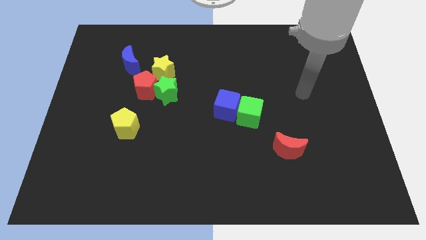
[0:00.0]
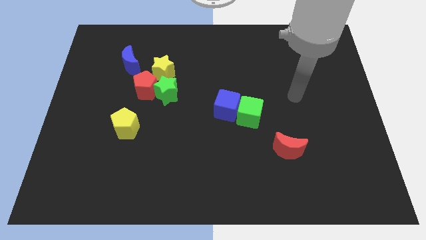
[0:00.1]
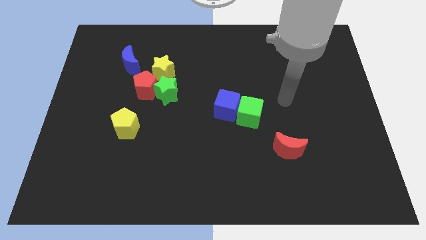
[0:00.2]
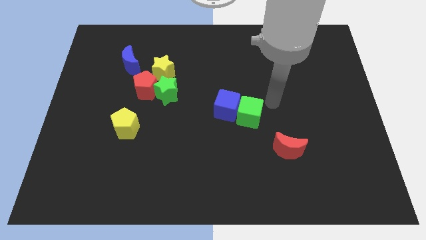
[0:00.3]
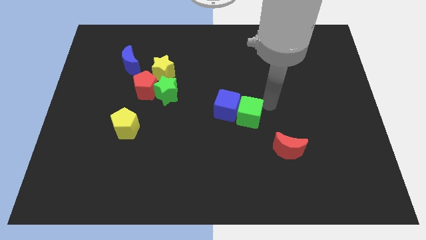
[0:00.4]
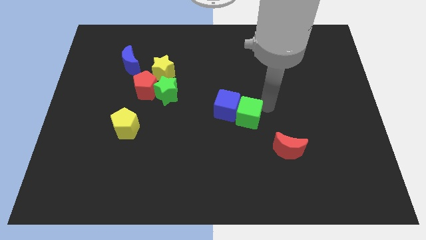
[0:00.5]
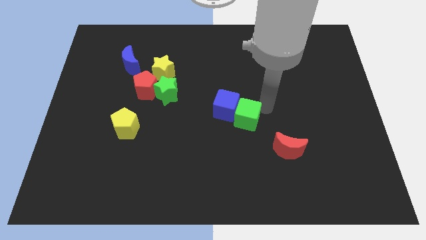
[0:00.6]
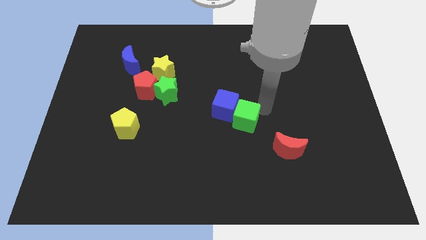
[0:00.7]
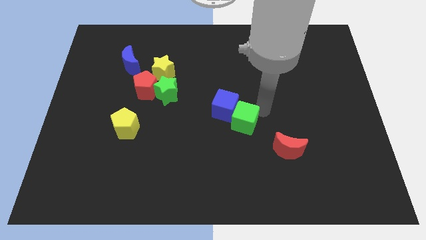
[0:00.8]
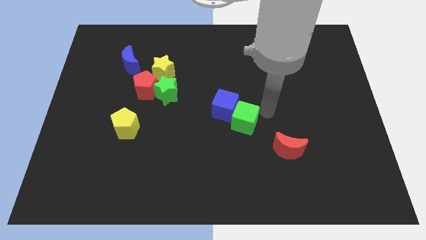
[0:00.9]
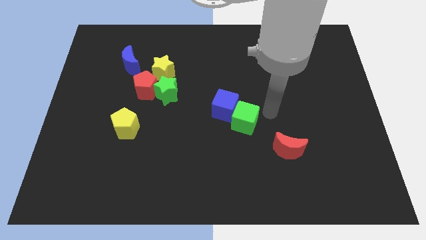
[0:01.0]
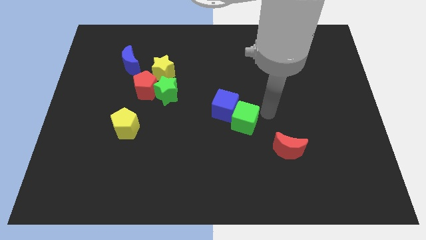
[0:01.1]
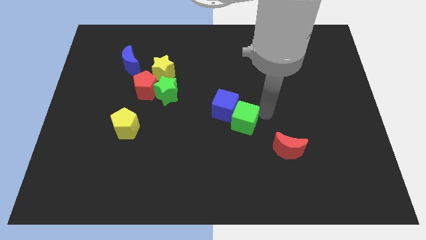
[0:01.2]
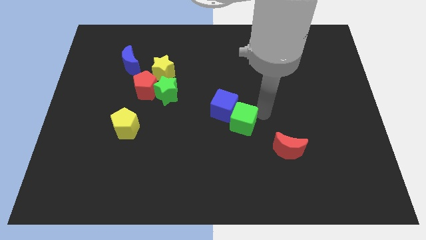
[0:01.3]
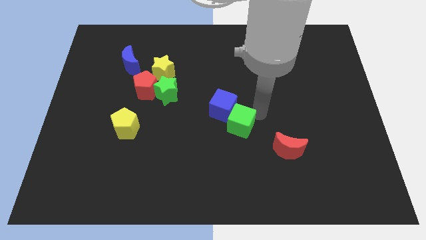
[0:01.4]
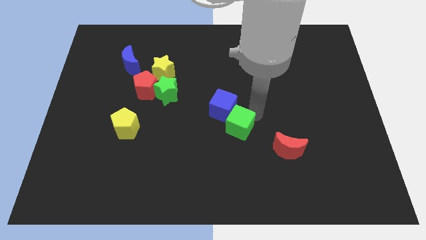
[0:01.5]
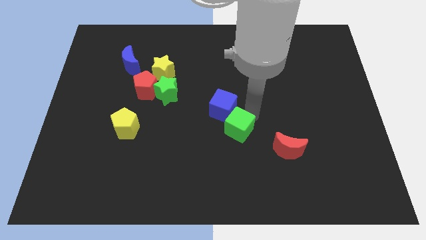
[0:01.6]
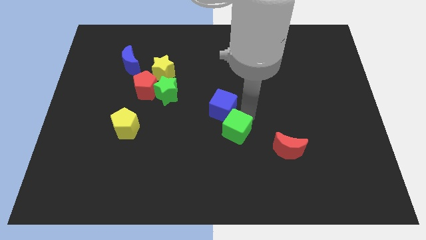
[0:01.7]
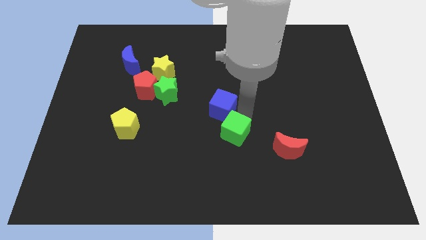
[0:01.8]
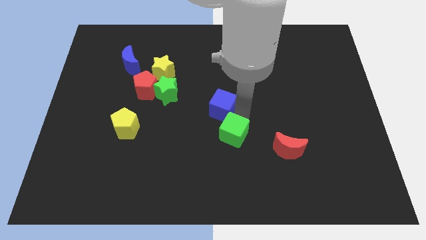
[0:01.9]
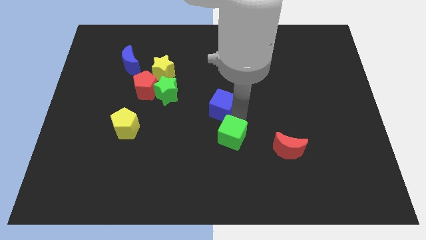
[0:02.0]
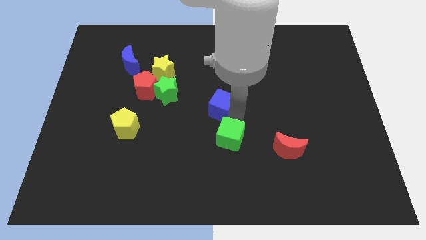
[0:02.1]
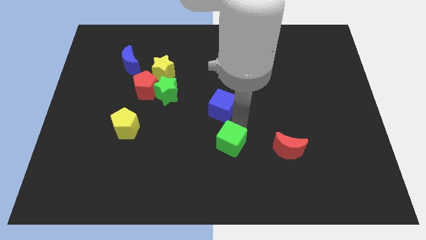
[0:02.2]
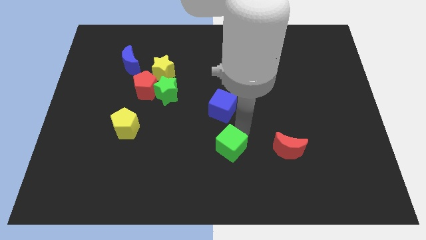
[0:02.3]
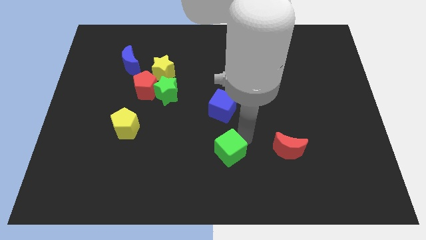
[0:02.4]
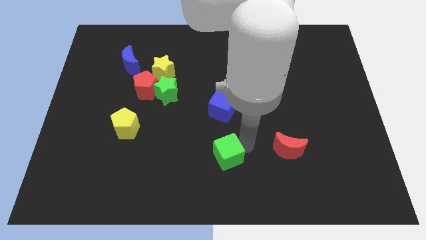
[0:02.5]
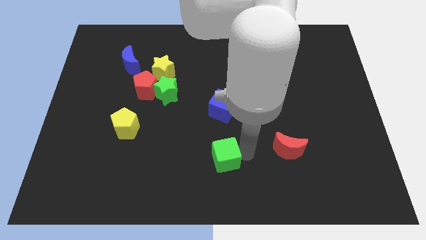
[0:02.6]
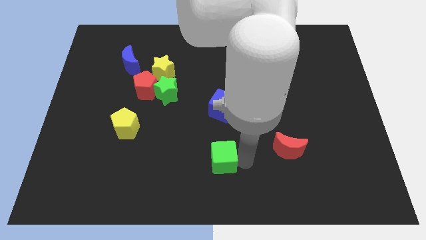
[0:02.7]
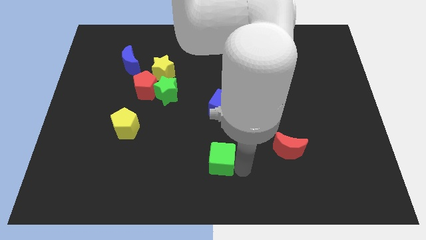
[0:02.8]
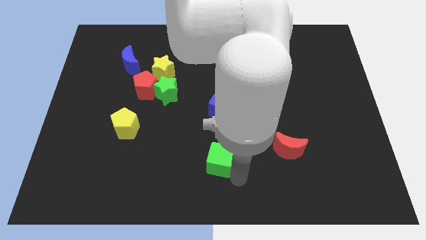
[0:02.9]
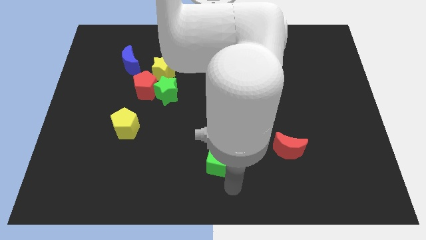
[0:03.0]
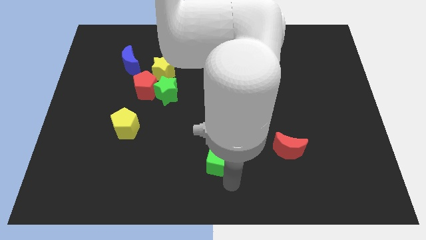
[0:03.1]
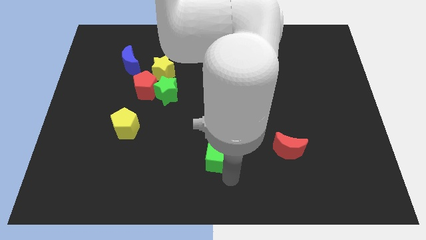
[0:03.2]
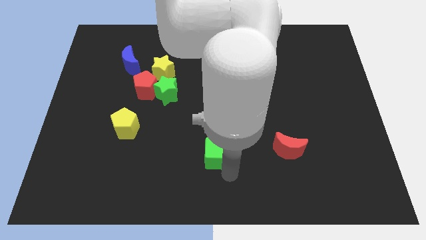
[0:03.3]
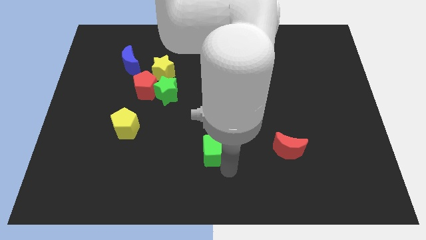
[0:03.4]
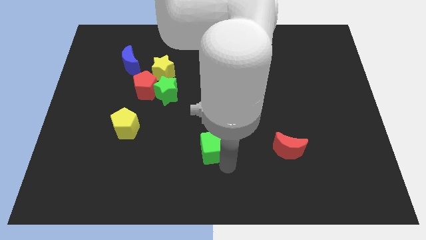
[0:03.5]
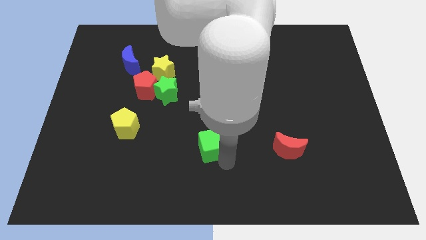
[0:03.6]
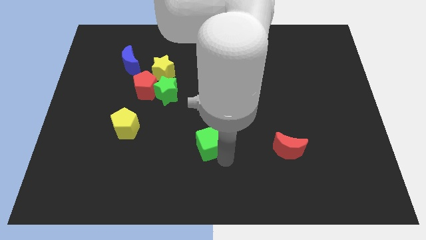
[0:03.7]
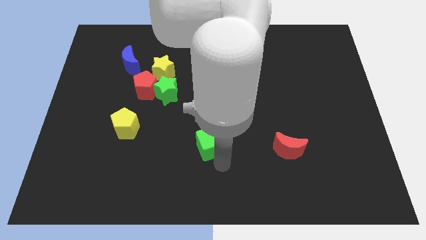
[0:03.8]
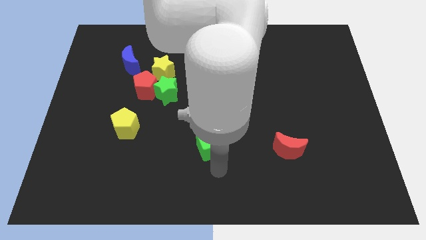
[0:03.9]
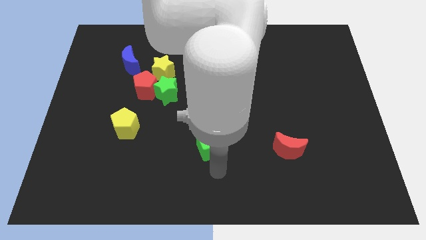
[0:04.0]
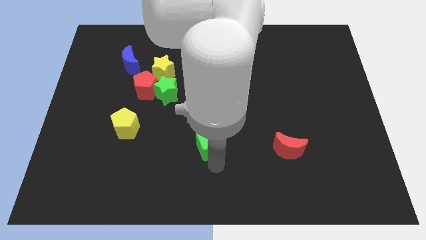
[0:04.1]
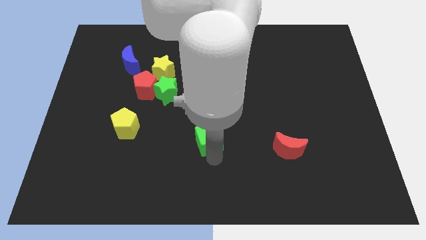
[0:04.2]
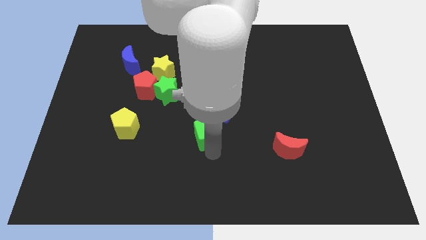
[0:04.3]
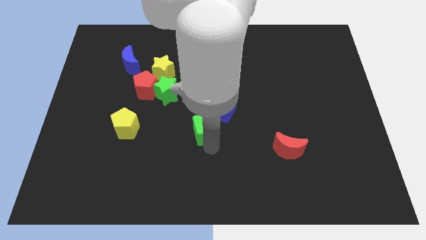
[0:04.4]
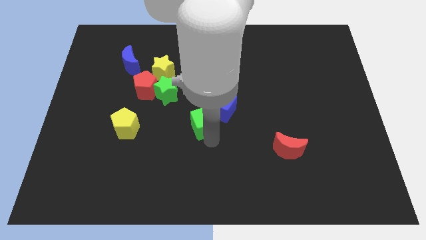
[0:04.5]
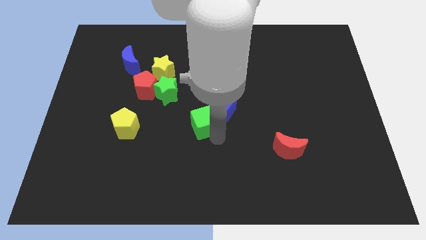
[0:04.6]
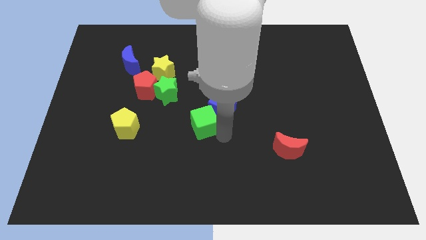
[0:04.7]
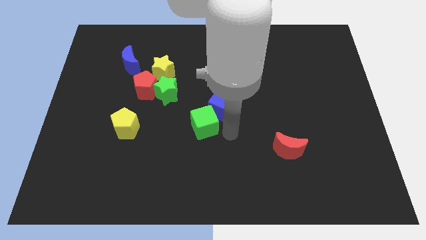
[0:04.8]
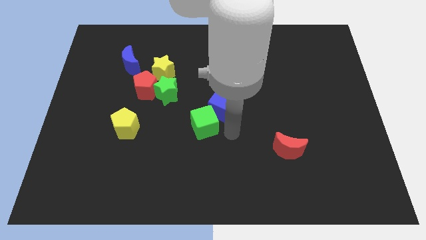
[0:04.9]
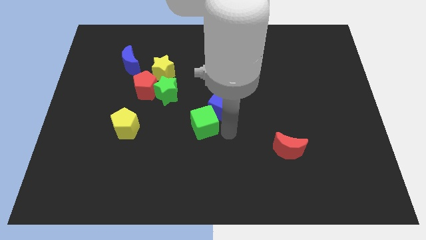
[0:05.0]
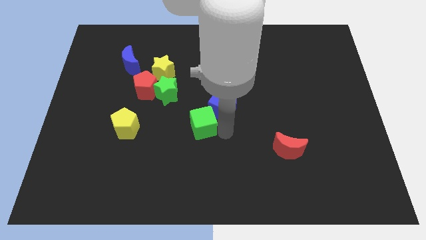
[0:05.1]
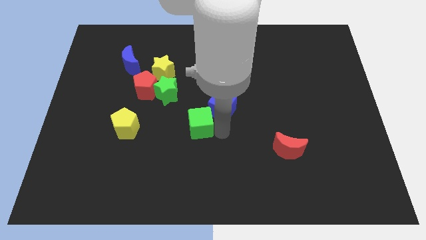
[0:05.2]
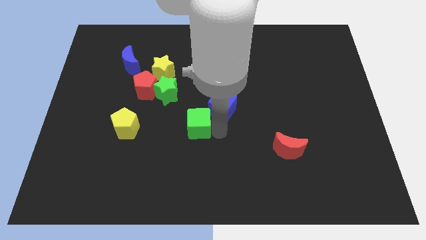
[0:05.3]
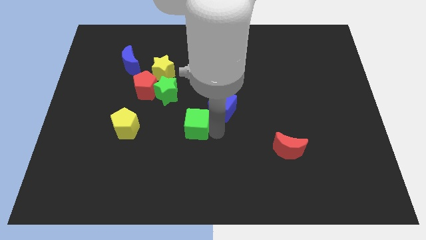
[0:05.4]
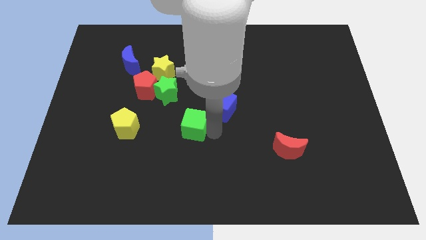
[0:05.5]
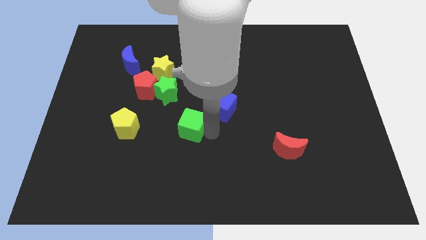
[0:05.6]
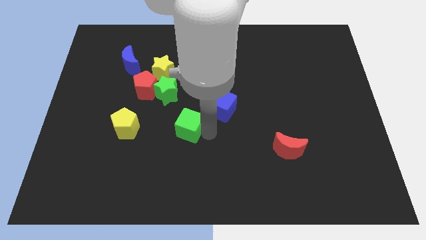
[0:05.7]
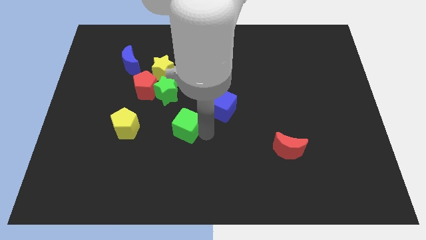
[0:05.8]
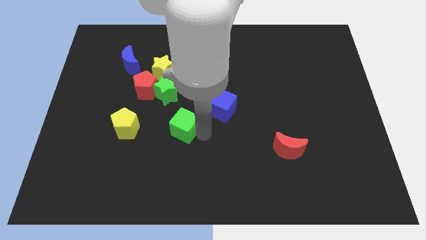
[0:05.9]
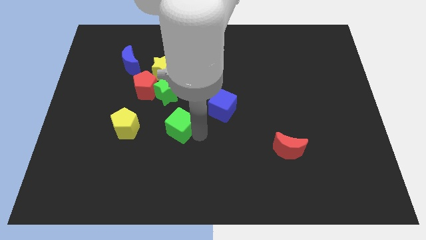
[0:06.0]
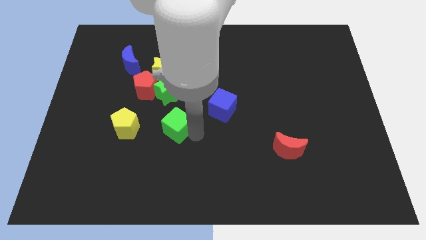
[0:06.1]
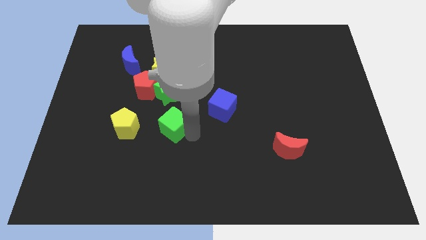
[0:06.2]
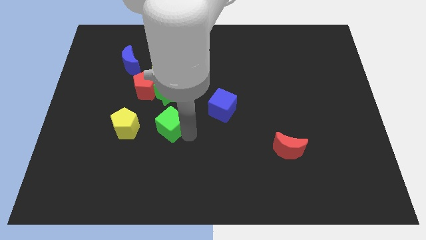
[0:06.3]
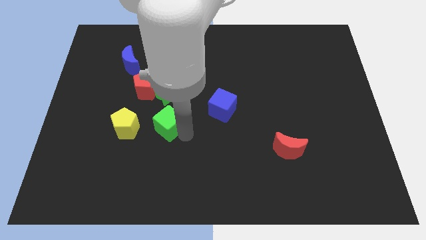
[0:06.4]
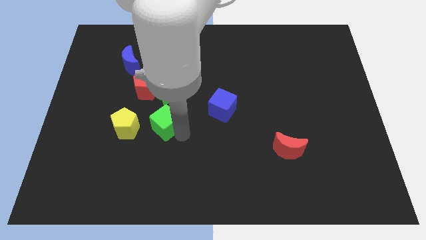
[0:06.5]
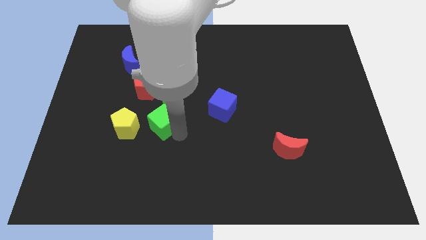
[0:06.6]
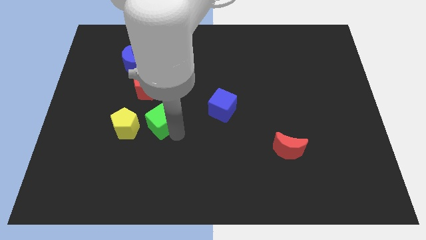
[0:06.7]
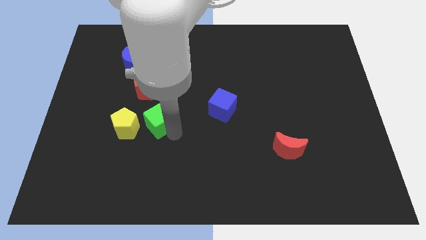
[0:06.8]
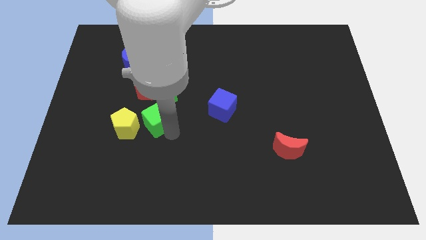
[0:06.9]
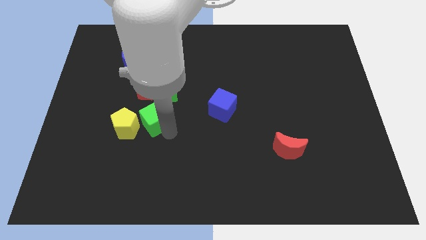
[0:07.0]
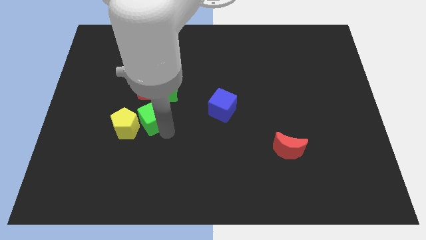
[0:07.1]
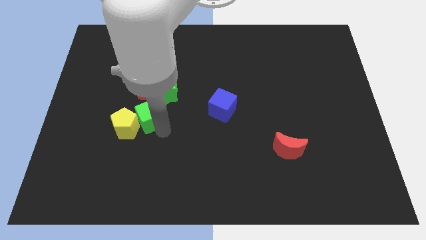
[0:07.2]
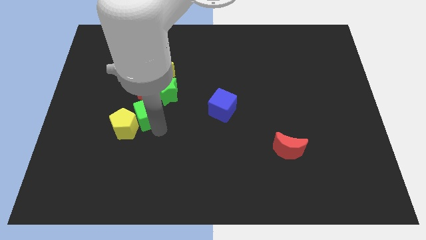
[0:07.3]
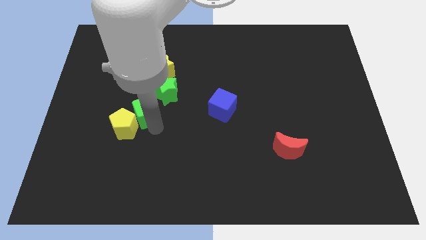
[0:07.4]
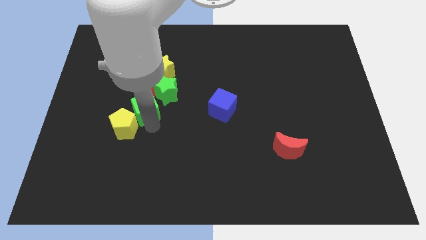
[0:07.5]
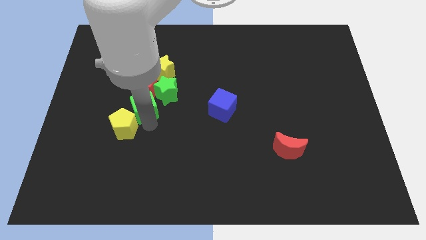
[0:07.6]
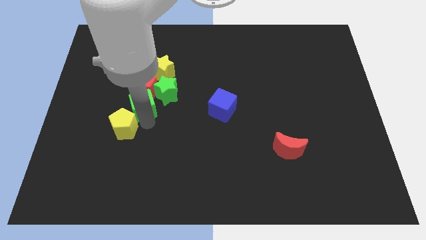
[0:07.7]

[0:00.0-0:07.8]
push the green cube next to the red pentagon
